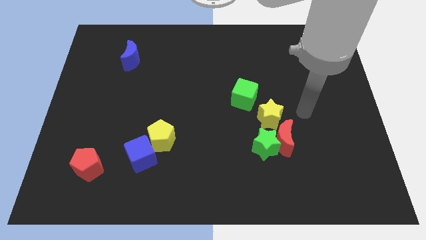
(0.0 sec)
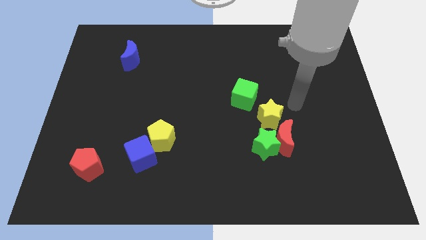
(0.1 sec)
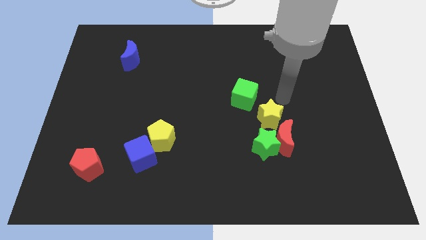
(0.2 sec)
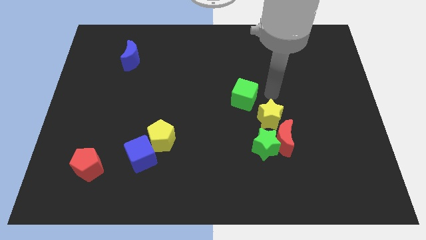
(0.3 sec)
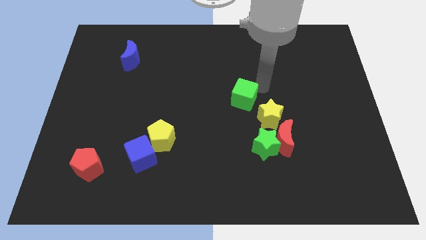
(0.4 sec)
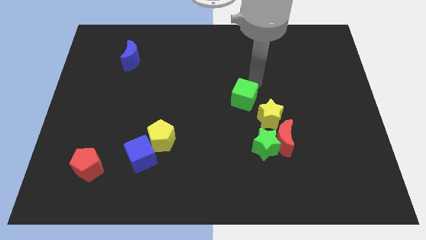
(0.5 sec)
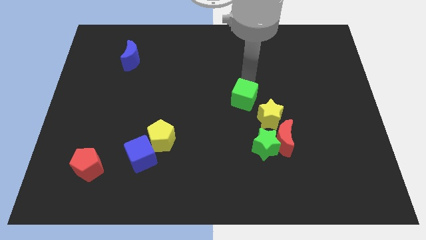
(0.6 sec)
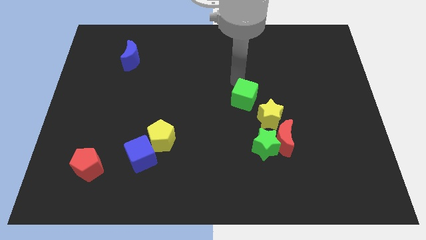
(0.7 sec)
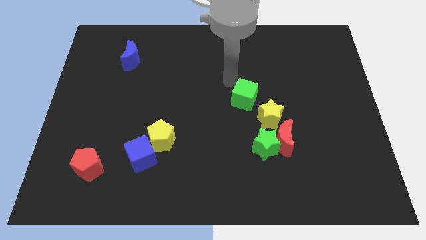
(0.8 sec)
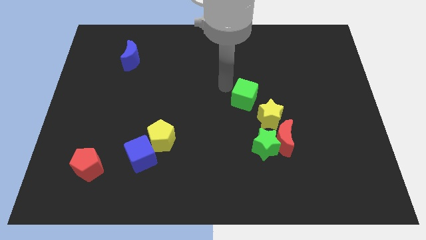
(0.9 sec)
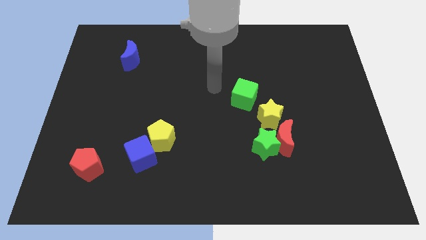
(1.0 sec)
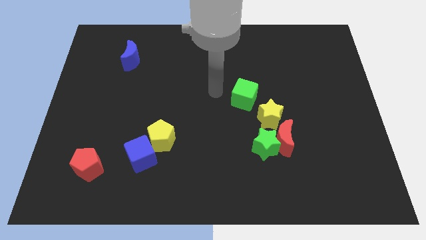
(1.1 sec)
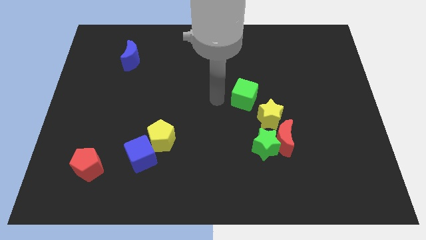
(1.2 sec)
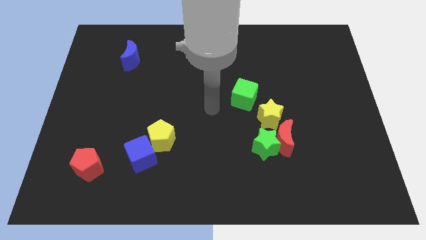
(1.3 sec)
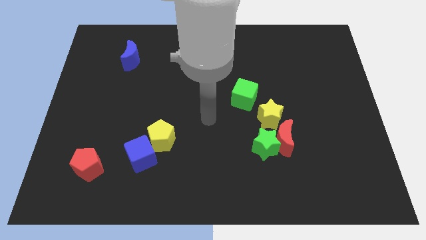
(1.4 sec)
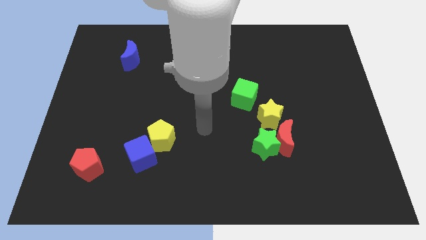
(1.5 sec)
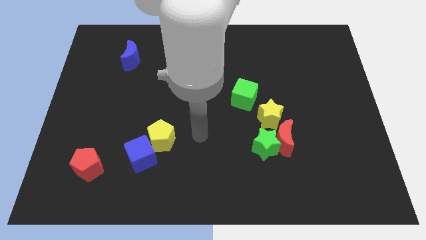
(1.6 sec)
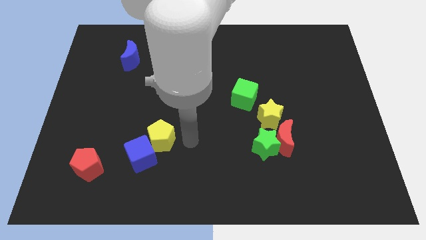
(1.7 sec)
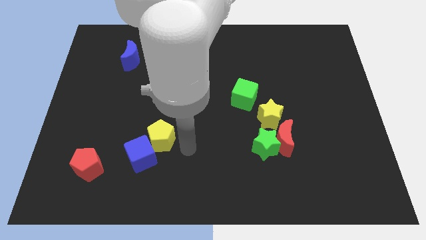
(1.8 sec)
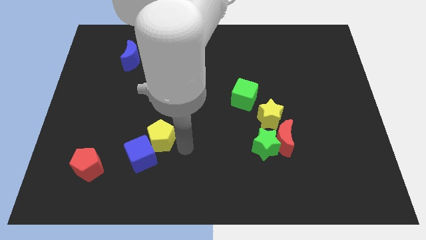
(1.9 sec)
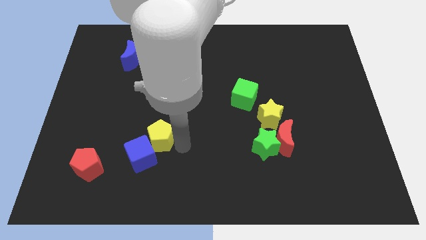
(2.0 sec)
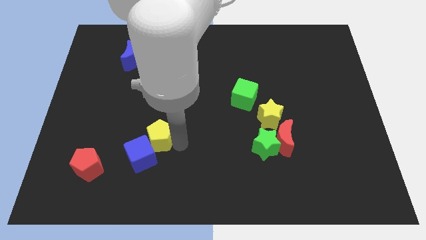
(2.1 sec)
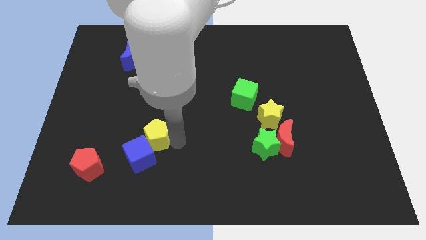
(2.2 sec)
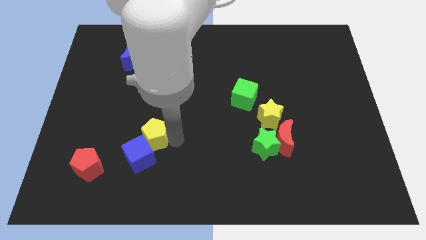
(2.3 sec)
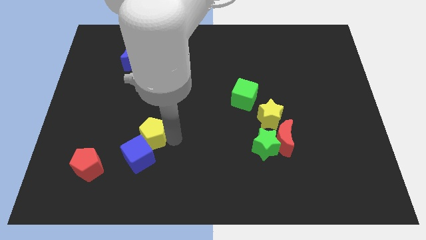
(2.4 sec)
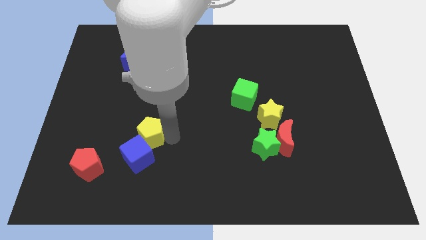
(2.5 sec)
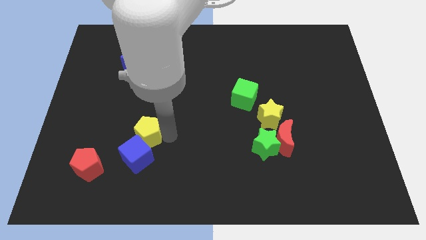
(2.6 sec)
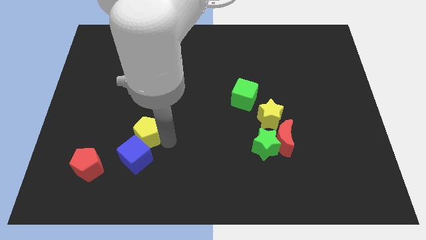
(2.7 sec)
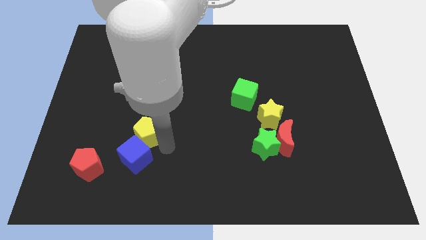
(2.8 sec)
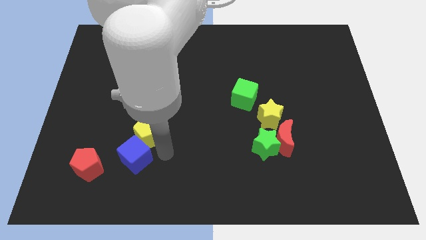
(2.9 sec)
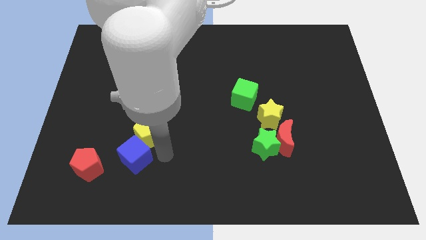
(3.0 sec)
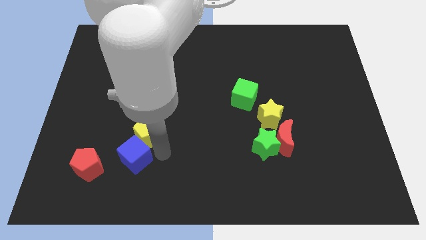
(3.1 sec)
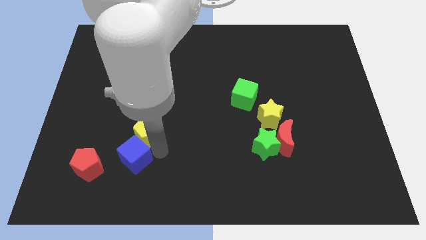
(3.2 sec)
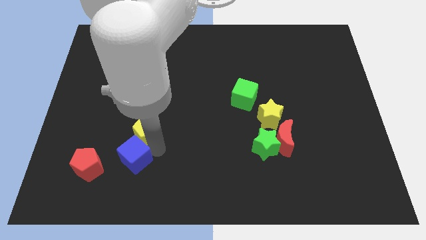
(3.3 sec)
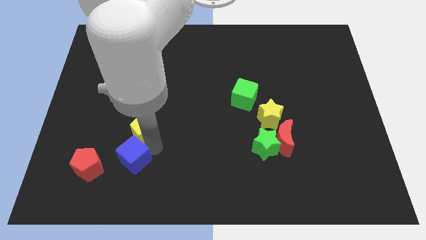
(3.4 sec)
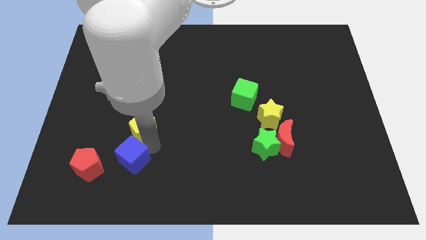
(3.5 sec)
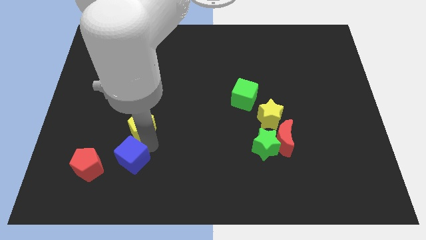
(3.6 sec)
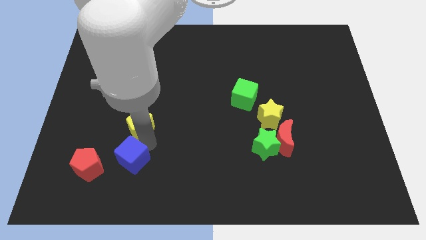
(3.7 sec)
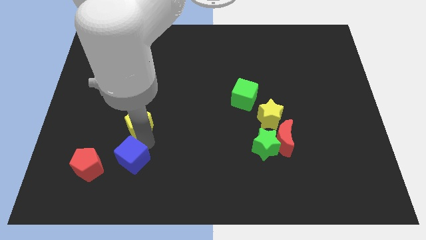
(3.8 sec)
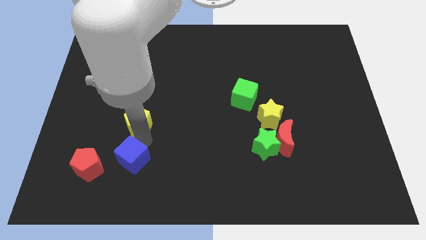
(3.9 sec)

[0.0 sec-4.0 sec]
slightly slide the yellow pentagon upwards and then to the left

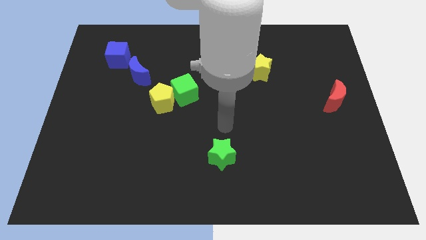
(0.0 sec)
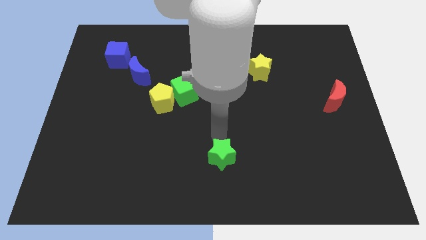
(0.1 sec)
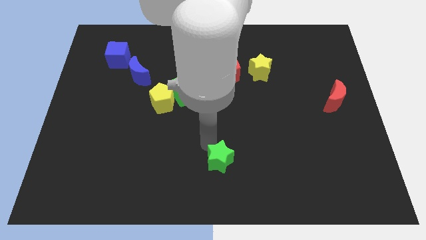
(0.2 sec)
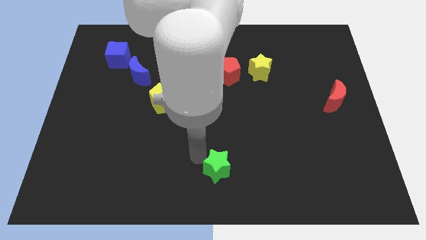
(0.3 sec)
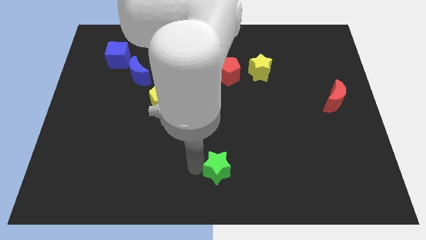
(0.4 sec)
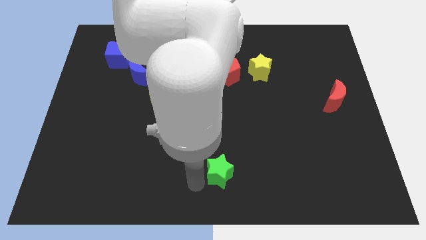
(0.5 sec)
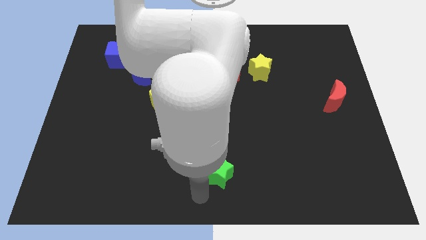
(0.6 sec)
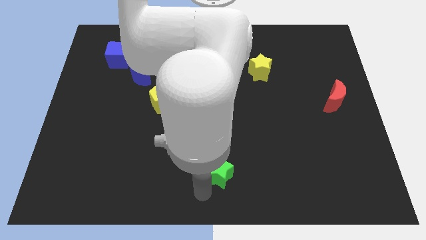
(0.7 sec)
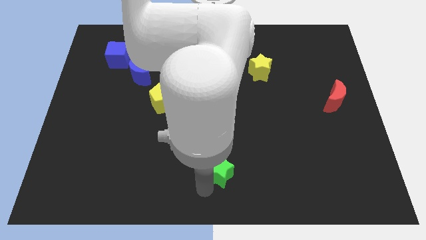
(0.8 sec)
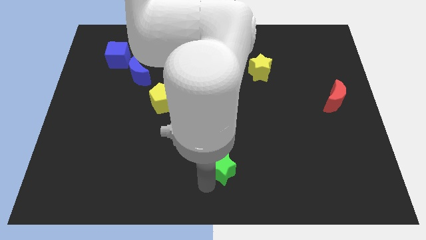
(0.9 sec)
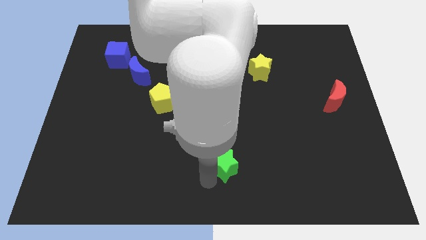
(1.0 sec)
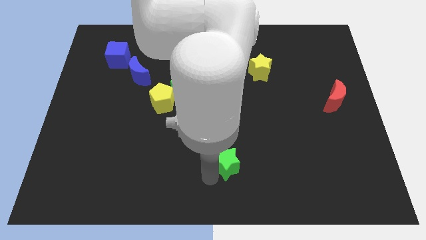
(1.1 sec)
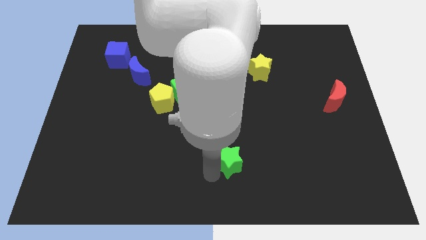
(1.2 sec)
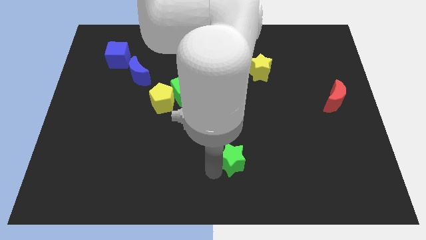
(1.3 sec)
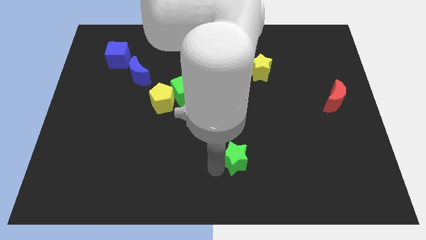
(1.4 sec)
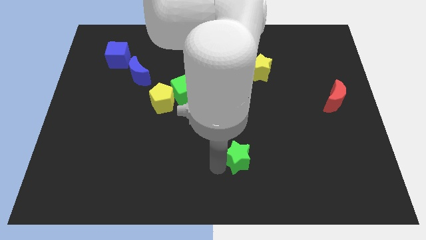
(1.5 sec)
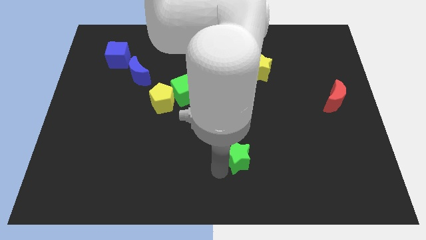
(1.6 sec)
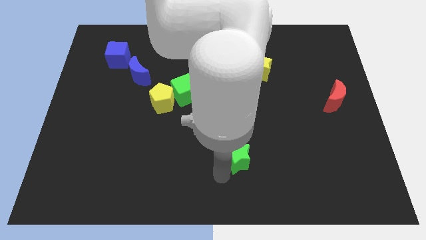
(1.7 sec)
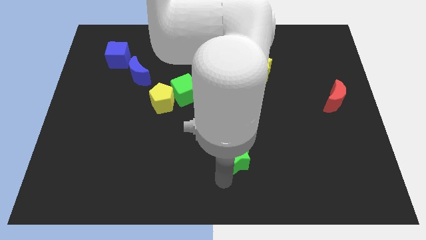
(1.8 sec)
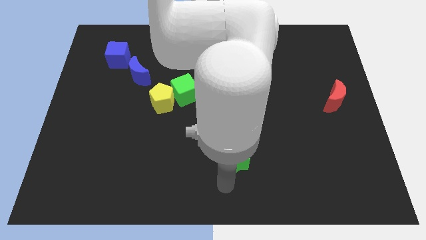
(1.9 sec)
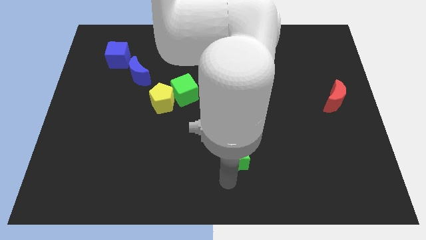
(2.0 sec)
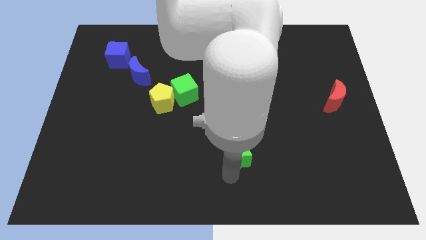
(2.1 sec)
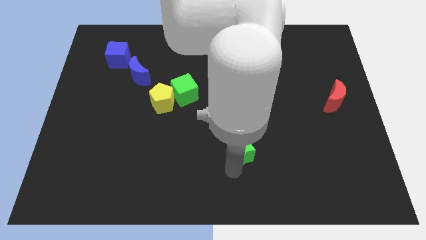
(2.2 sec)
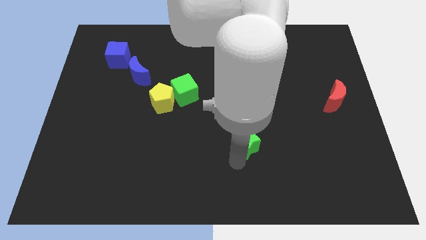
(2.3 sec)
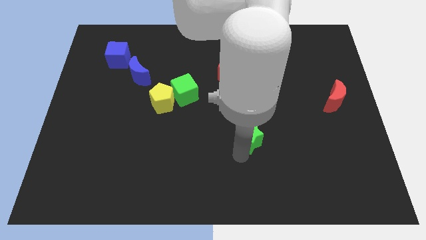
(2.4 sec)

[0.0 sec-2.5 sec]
slightly move the green star diagonally upwards and to the right

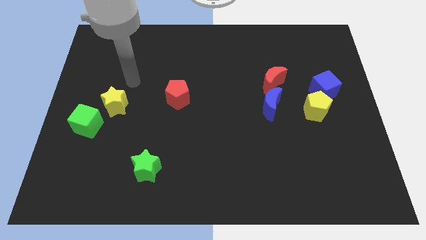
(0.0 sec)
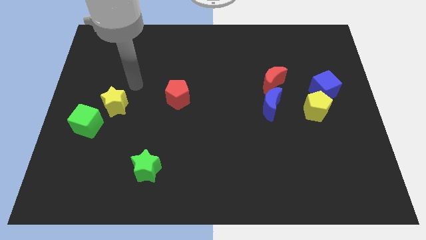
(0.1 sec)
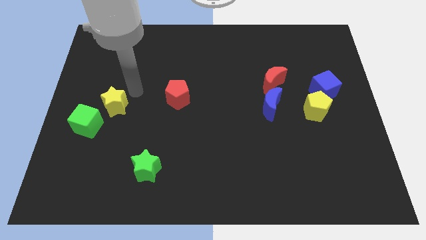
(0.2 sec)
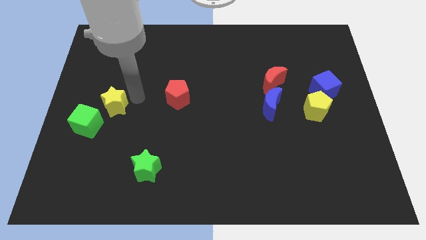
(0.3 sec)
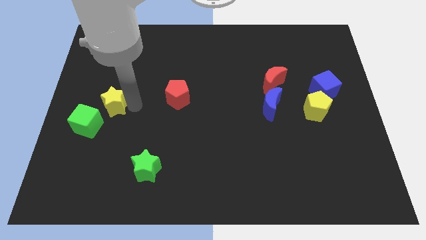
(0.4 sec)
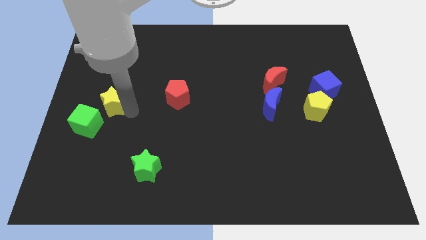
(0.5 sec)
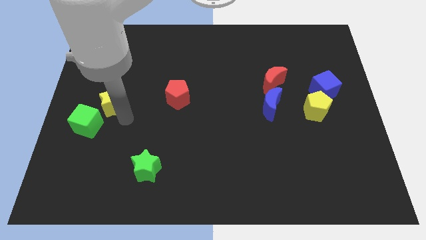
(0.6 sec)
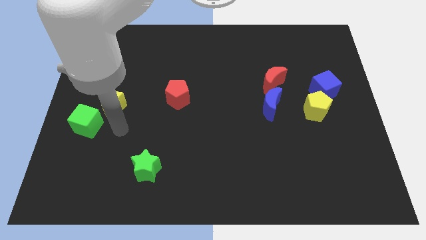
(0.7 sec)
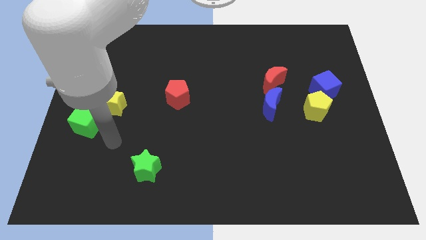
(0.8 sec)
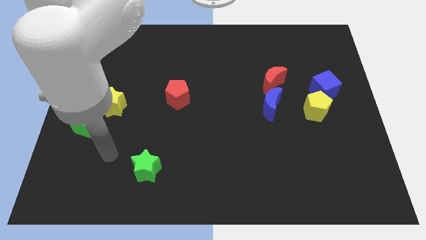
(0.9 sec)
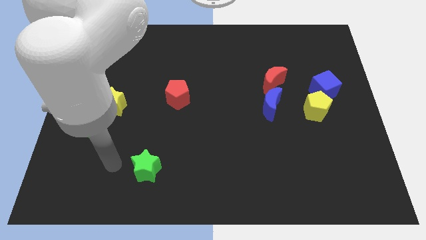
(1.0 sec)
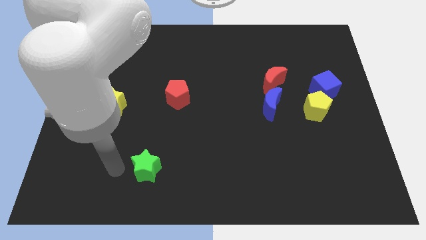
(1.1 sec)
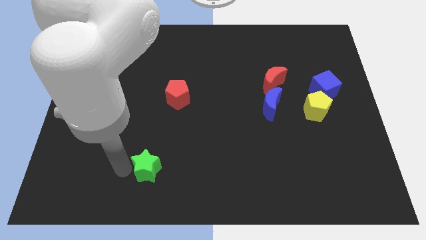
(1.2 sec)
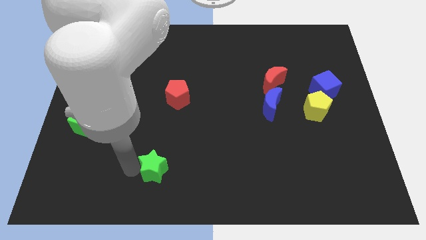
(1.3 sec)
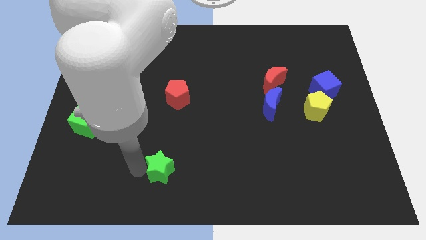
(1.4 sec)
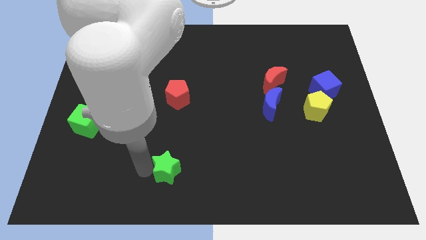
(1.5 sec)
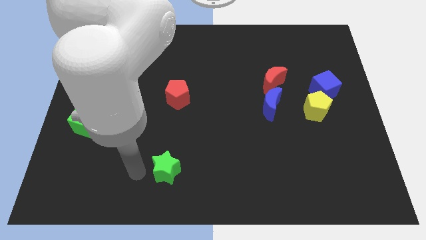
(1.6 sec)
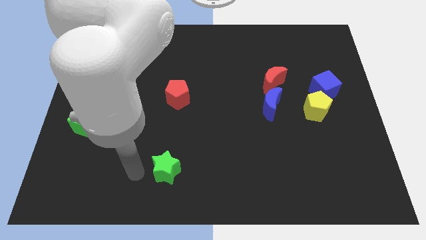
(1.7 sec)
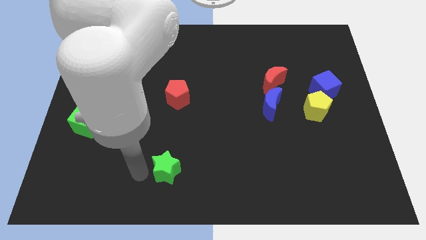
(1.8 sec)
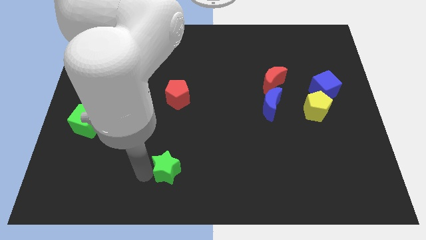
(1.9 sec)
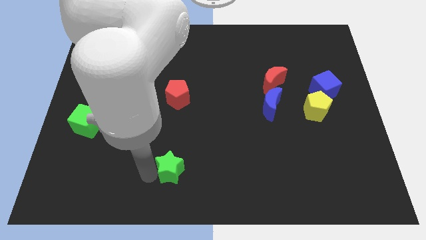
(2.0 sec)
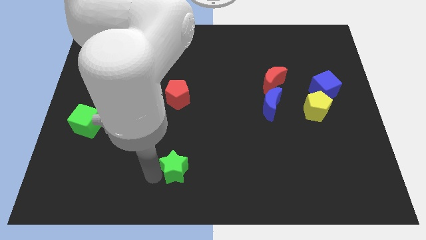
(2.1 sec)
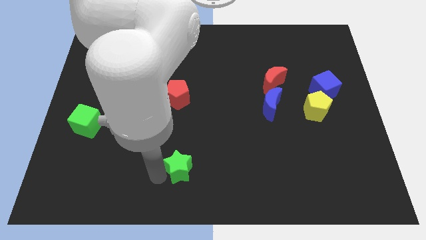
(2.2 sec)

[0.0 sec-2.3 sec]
slightly move the green star right
